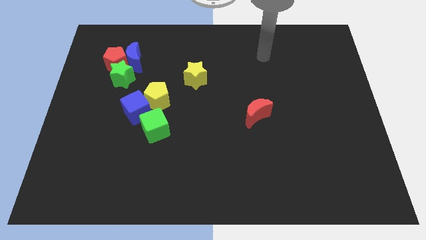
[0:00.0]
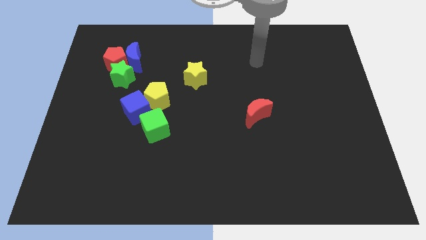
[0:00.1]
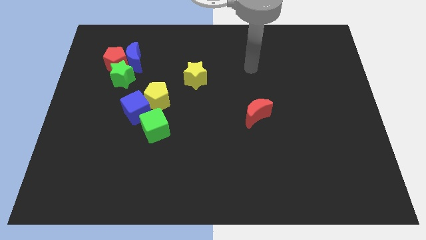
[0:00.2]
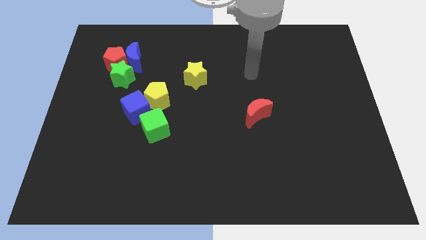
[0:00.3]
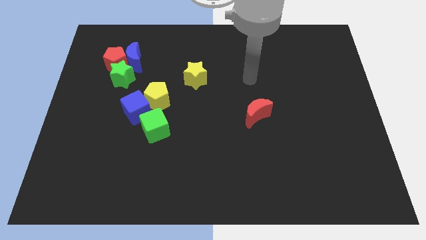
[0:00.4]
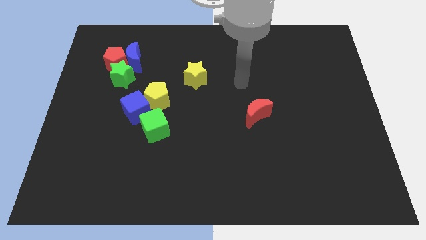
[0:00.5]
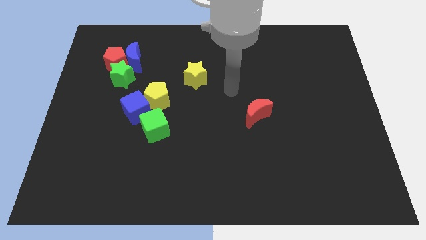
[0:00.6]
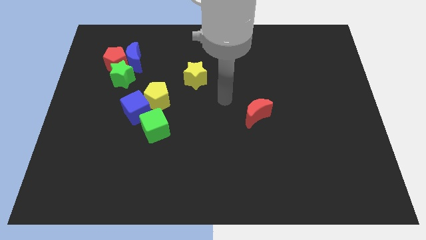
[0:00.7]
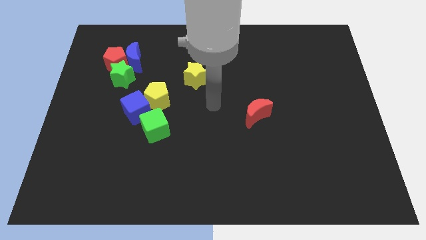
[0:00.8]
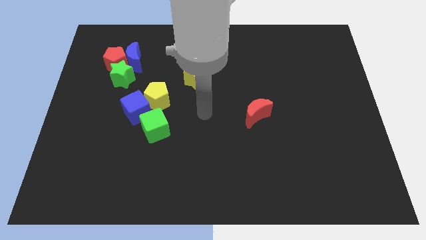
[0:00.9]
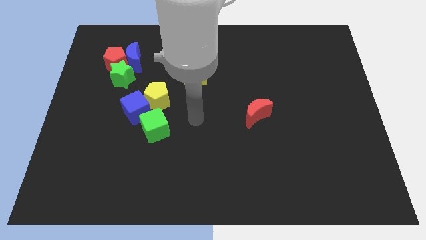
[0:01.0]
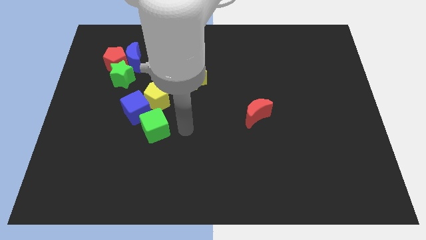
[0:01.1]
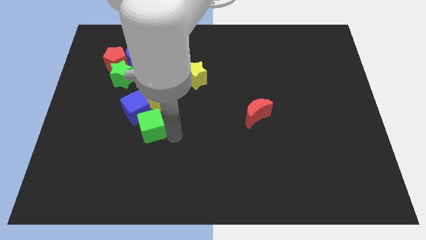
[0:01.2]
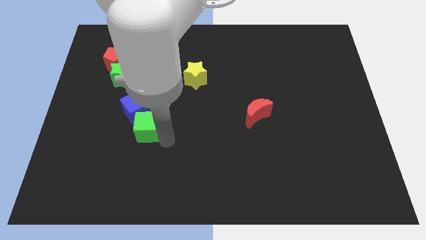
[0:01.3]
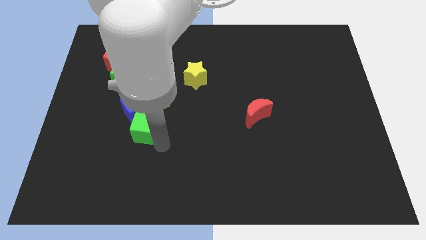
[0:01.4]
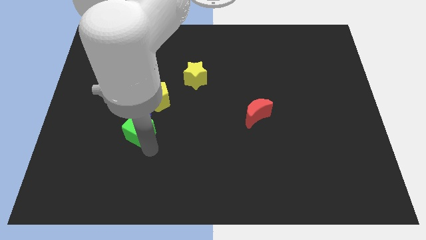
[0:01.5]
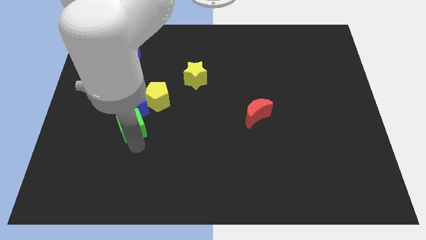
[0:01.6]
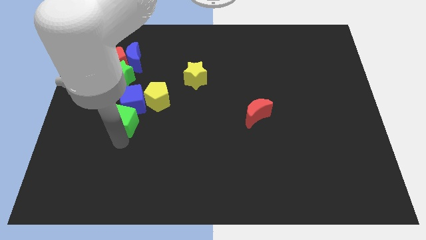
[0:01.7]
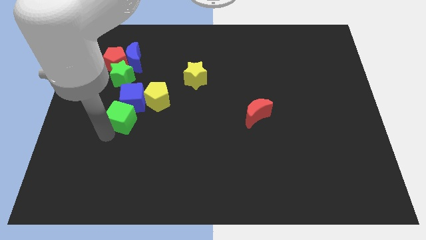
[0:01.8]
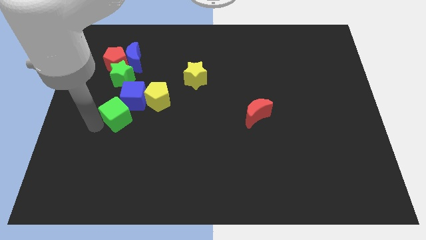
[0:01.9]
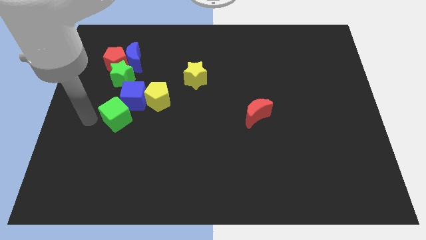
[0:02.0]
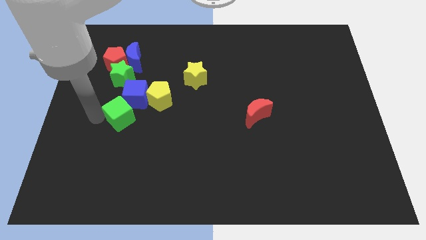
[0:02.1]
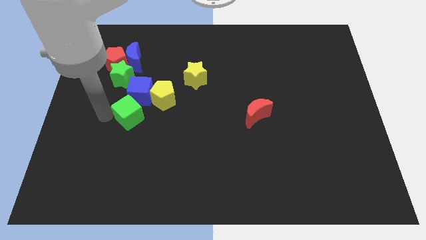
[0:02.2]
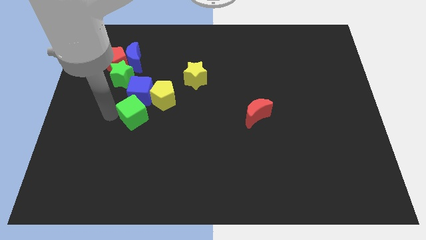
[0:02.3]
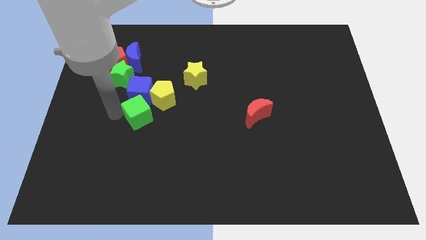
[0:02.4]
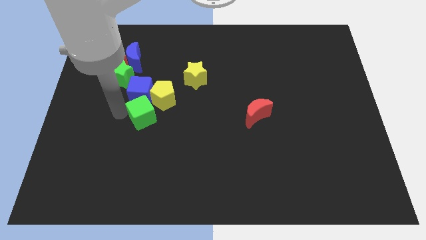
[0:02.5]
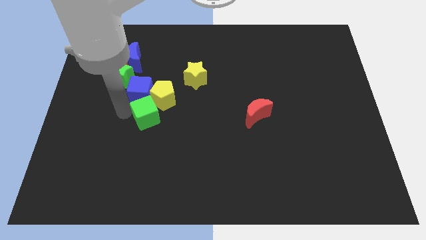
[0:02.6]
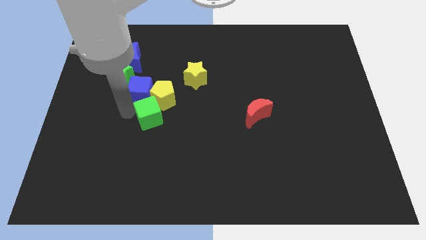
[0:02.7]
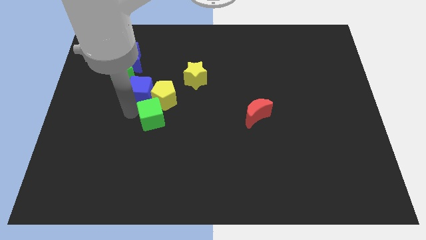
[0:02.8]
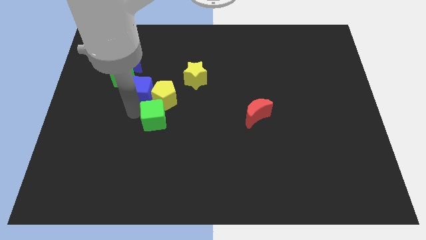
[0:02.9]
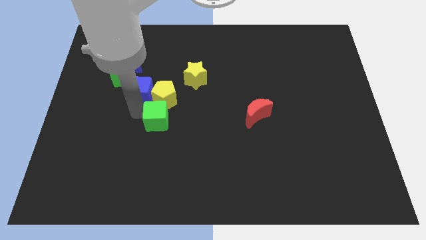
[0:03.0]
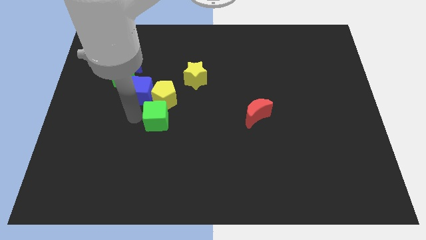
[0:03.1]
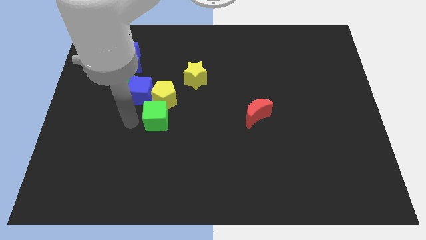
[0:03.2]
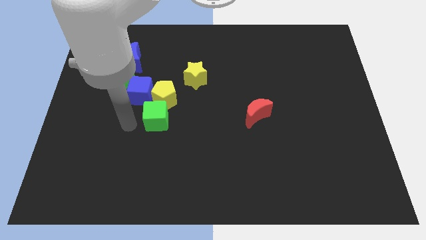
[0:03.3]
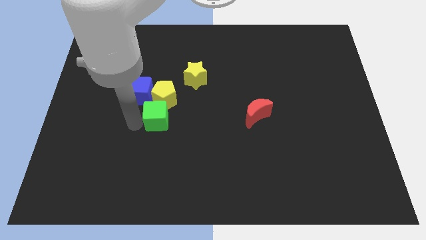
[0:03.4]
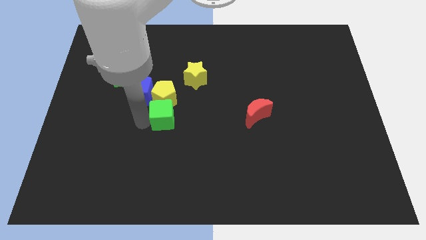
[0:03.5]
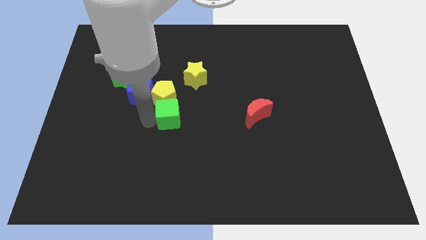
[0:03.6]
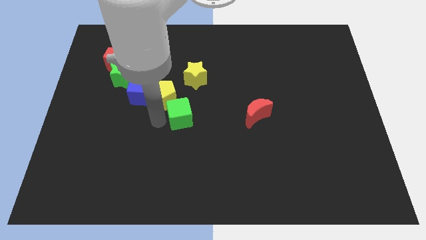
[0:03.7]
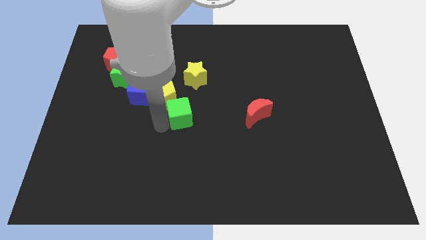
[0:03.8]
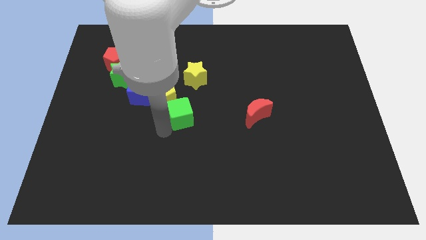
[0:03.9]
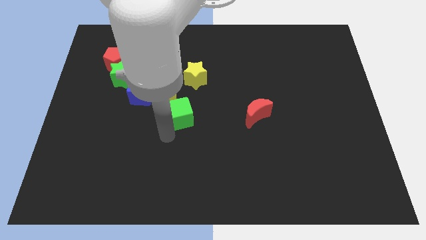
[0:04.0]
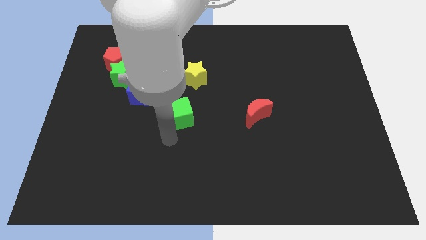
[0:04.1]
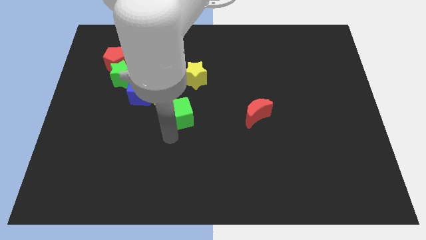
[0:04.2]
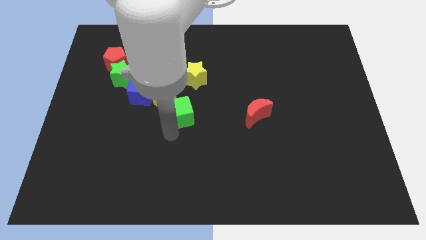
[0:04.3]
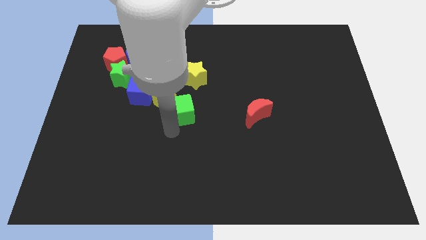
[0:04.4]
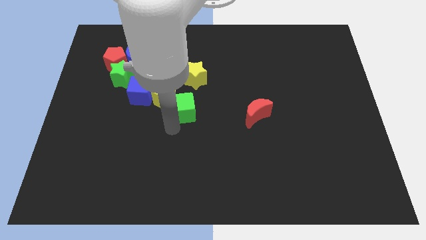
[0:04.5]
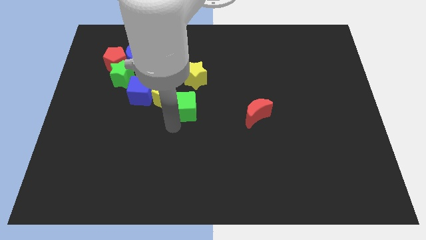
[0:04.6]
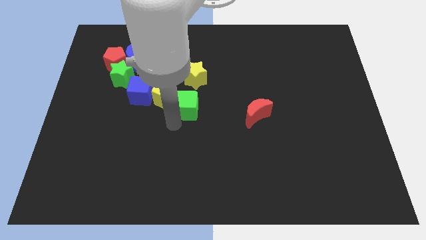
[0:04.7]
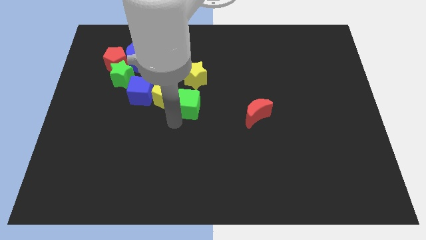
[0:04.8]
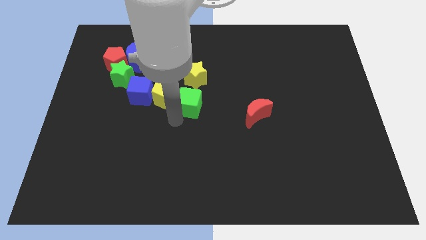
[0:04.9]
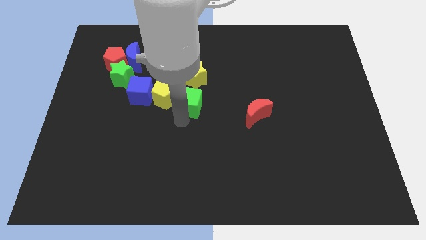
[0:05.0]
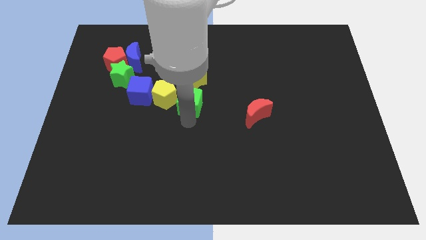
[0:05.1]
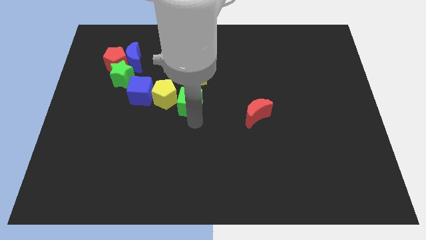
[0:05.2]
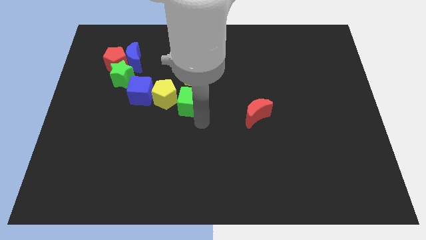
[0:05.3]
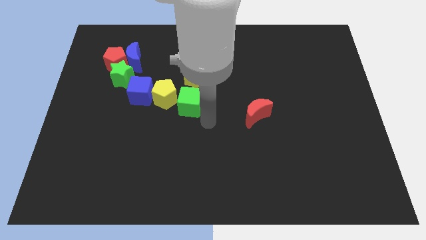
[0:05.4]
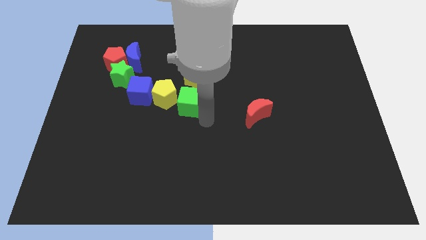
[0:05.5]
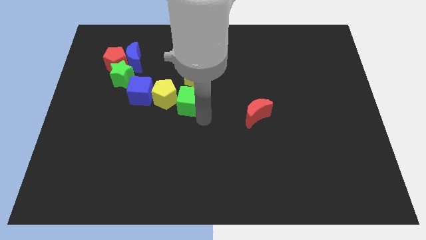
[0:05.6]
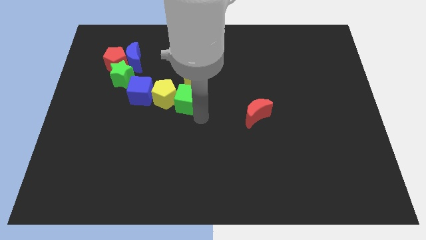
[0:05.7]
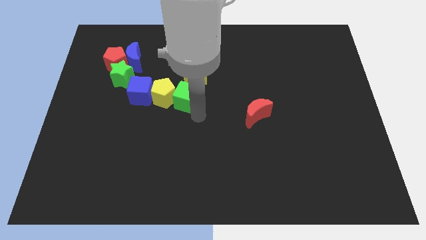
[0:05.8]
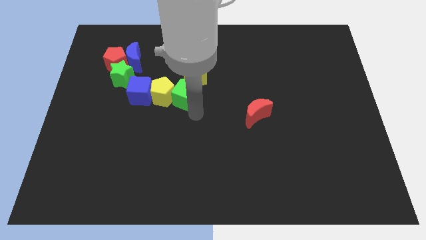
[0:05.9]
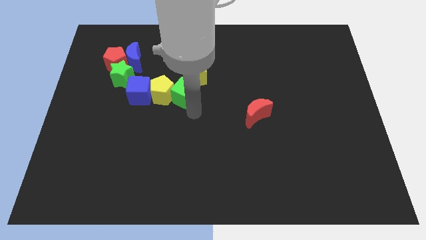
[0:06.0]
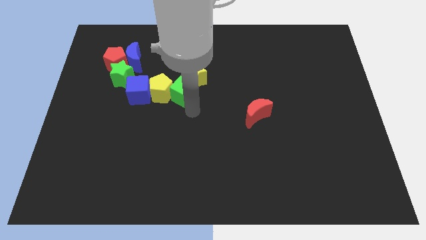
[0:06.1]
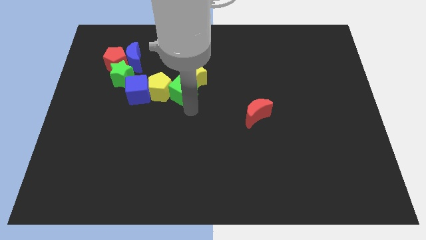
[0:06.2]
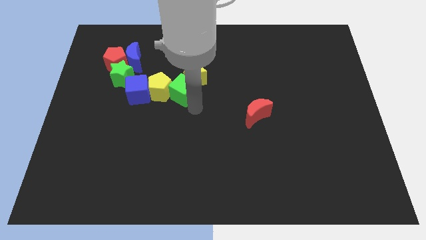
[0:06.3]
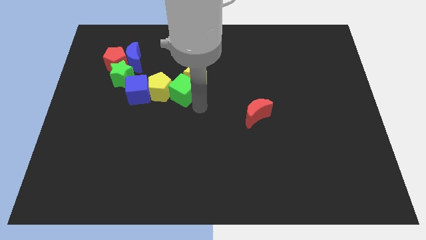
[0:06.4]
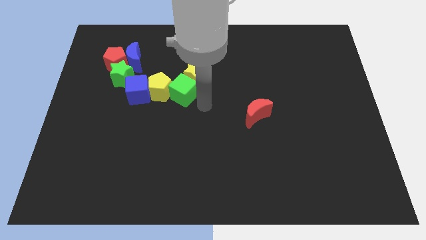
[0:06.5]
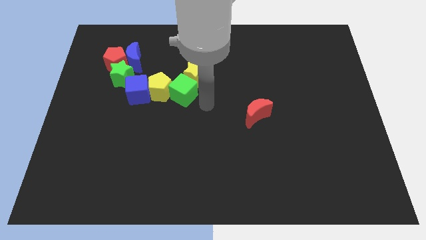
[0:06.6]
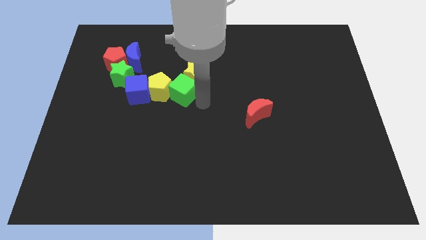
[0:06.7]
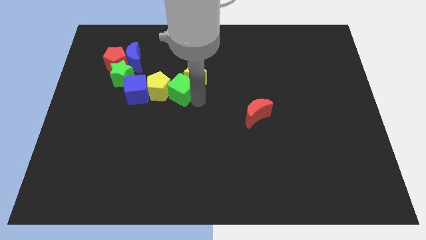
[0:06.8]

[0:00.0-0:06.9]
move the green cube just left of the yellow star

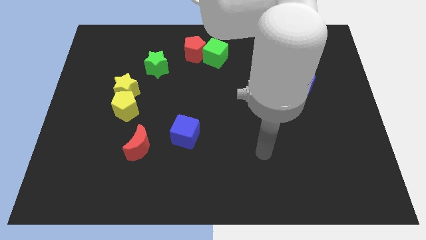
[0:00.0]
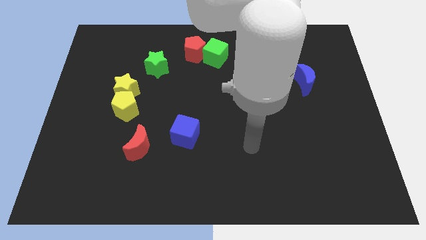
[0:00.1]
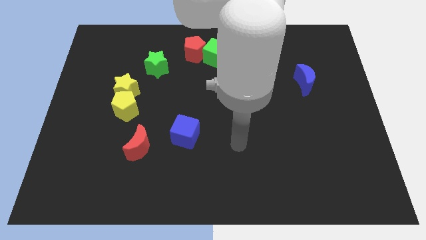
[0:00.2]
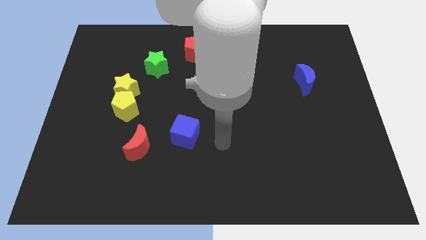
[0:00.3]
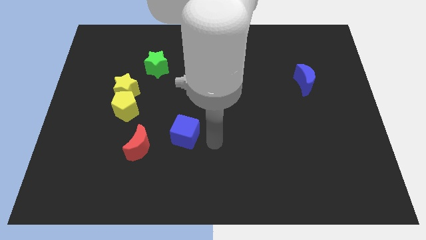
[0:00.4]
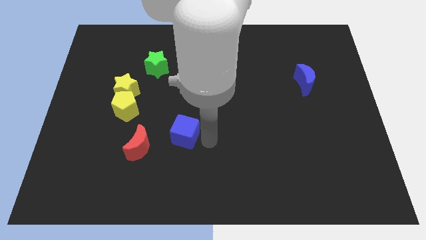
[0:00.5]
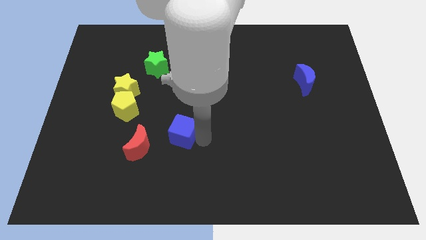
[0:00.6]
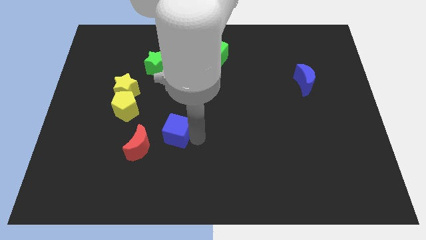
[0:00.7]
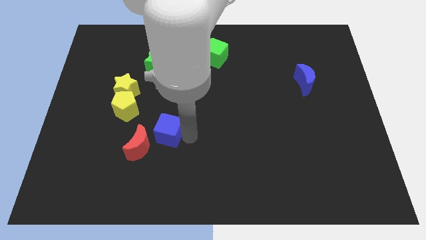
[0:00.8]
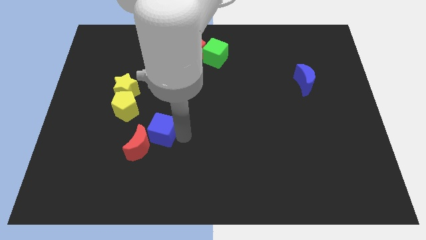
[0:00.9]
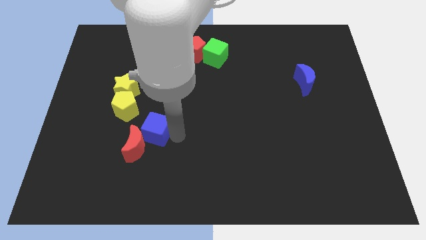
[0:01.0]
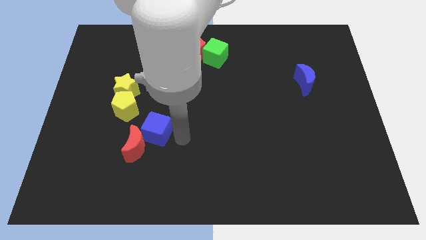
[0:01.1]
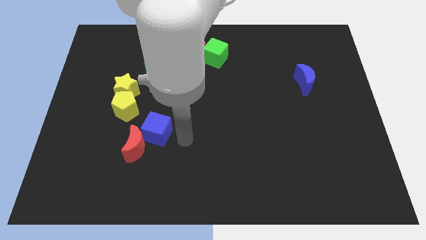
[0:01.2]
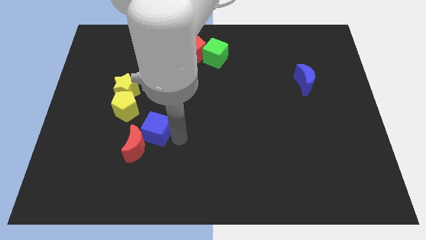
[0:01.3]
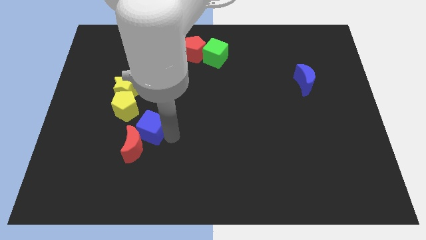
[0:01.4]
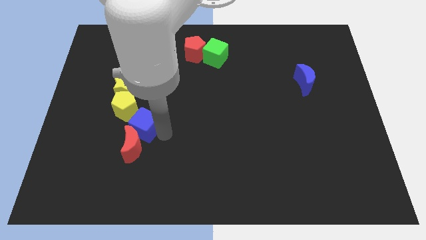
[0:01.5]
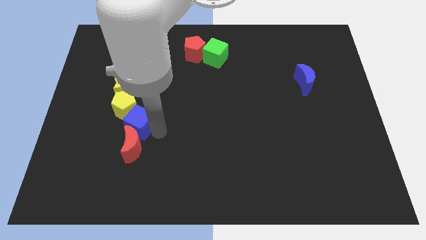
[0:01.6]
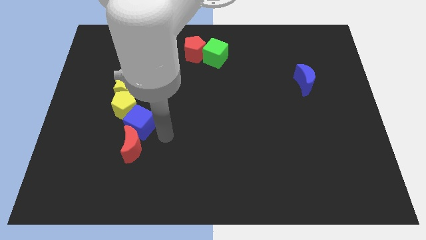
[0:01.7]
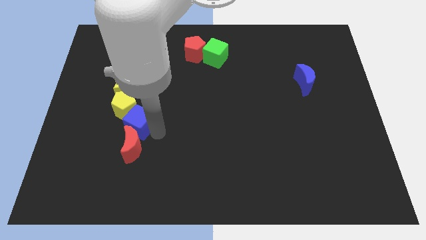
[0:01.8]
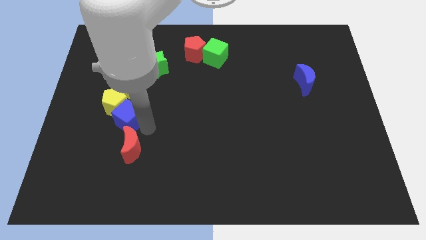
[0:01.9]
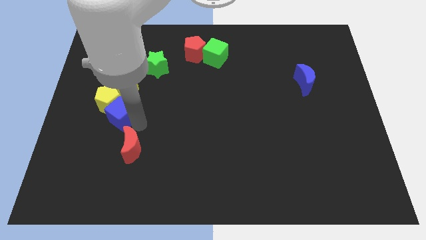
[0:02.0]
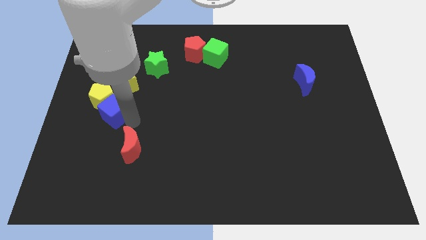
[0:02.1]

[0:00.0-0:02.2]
push the blue cube to the bottom left side of the yellow star
